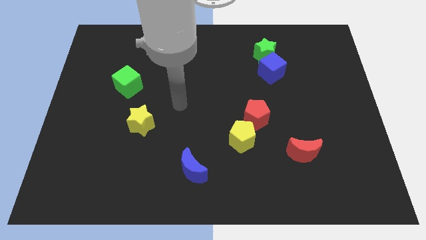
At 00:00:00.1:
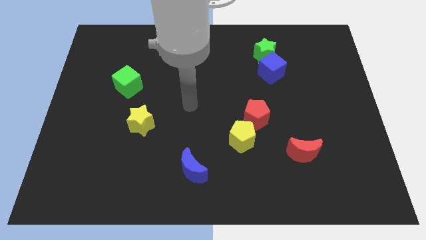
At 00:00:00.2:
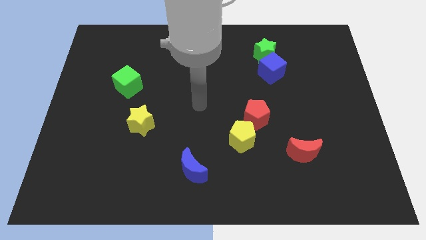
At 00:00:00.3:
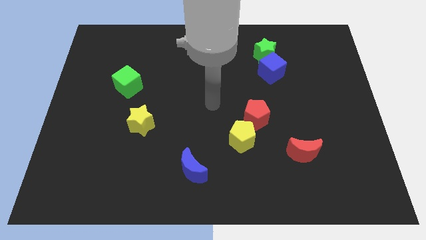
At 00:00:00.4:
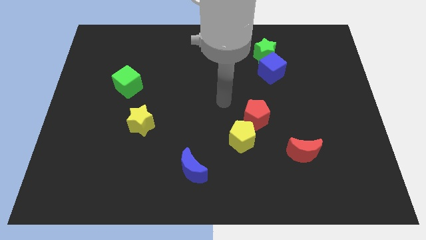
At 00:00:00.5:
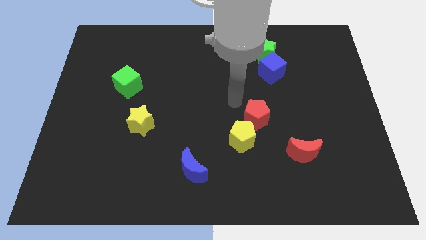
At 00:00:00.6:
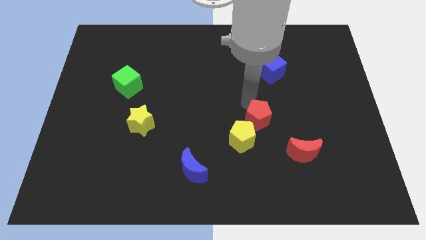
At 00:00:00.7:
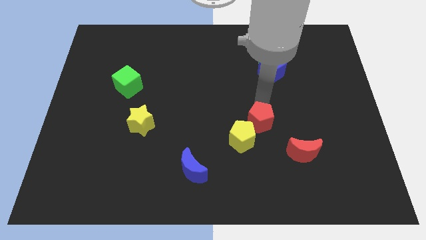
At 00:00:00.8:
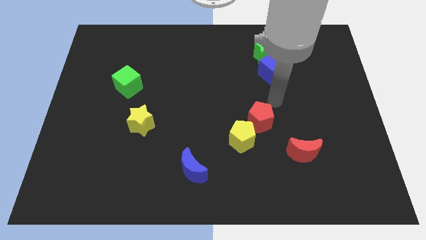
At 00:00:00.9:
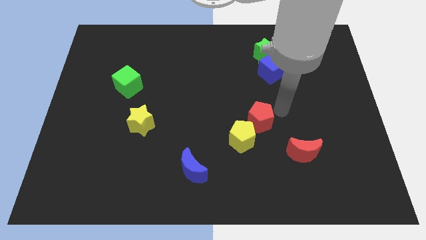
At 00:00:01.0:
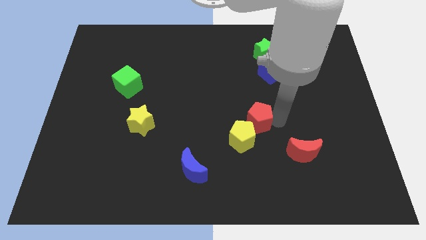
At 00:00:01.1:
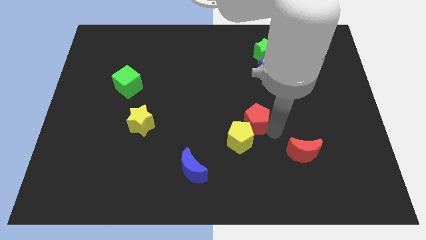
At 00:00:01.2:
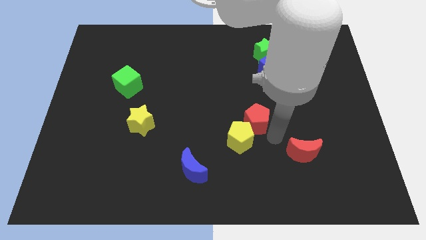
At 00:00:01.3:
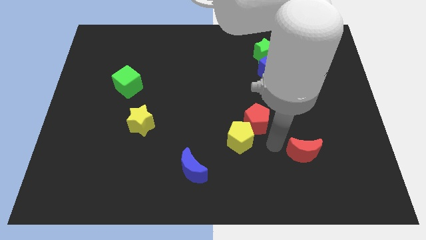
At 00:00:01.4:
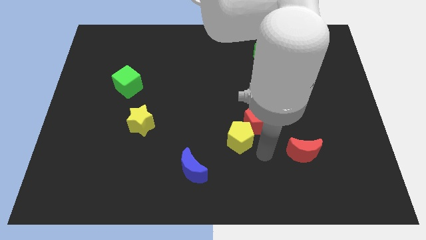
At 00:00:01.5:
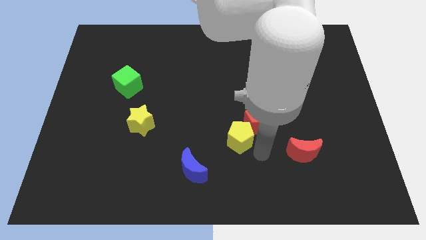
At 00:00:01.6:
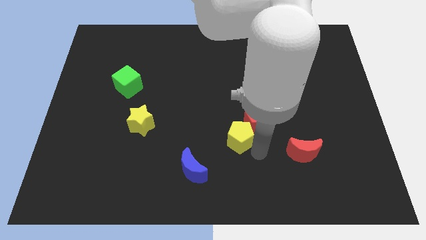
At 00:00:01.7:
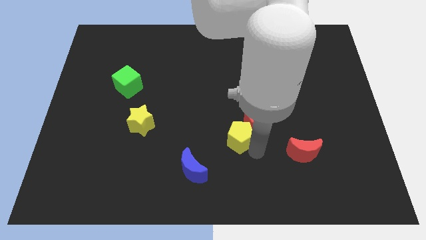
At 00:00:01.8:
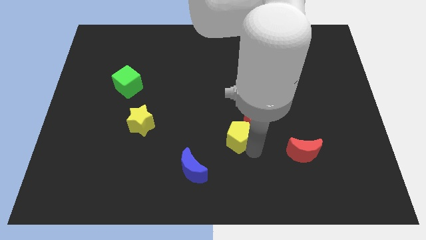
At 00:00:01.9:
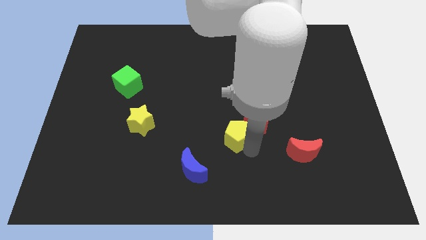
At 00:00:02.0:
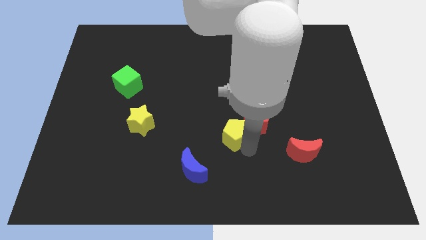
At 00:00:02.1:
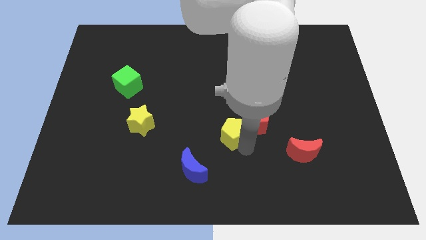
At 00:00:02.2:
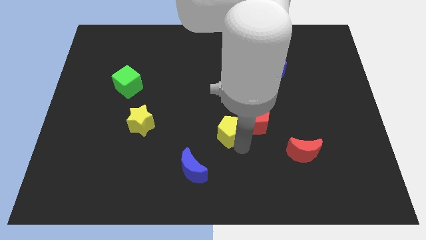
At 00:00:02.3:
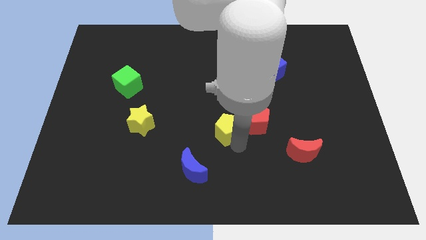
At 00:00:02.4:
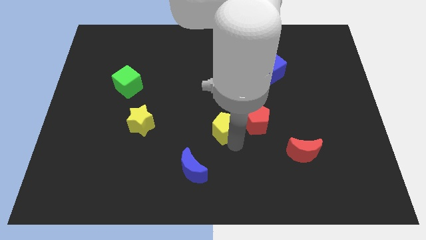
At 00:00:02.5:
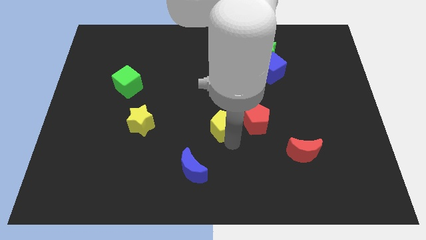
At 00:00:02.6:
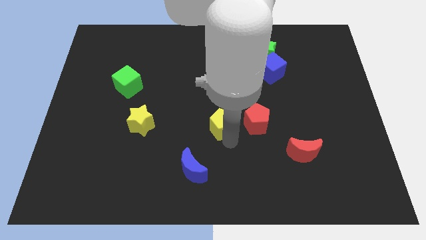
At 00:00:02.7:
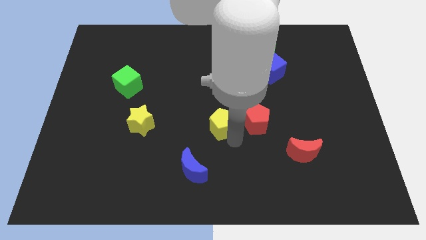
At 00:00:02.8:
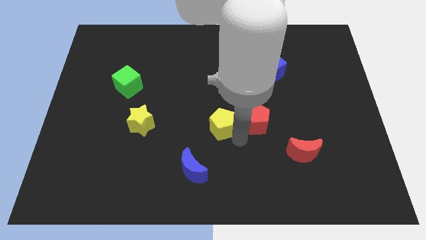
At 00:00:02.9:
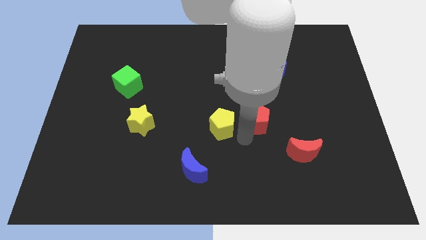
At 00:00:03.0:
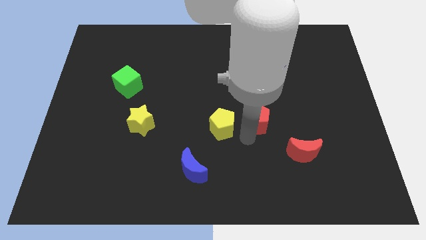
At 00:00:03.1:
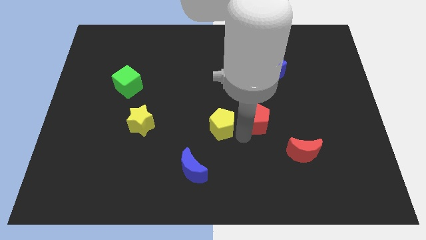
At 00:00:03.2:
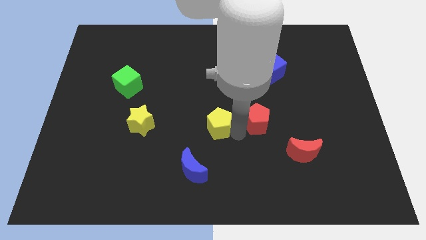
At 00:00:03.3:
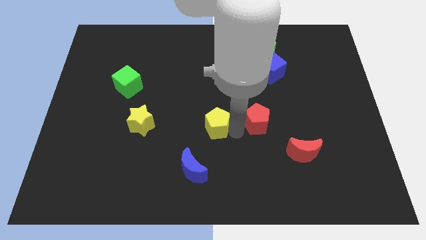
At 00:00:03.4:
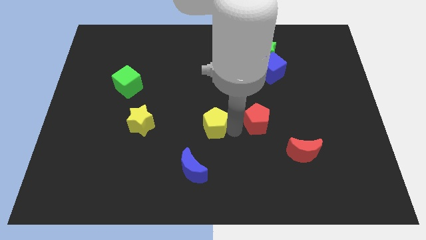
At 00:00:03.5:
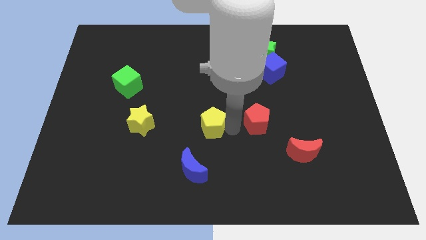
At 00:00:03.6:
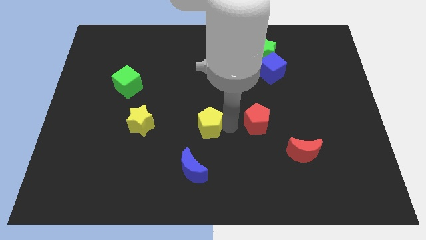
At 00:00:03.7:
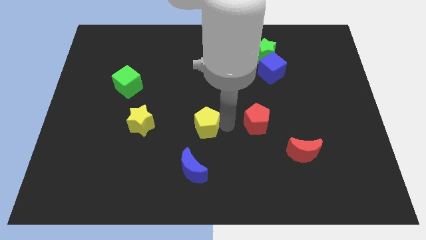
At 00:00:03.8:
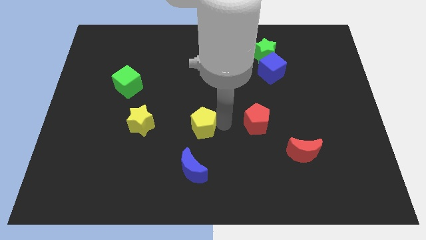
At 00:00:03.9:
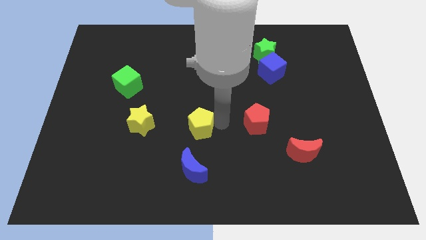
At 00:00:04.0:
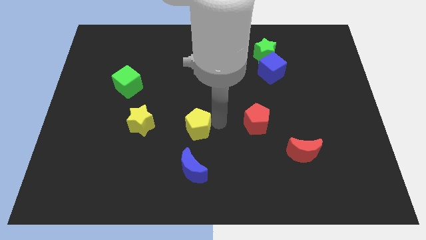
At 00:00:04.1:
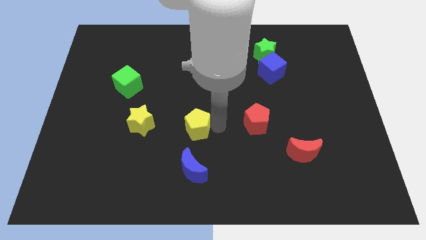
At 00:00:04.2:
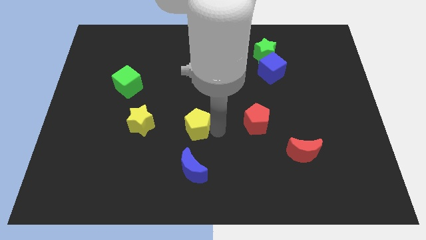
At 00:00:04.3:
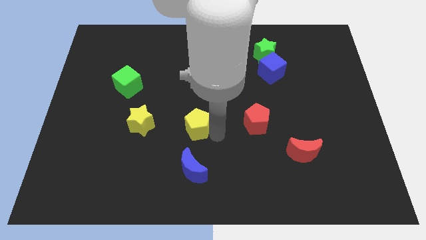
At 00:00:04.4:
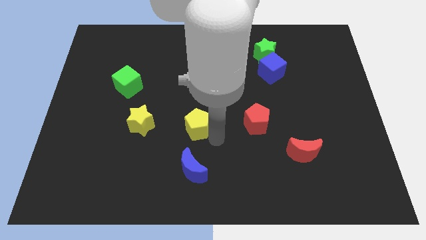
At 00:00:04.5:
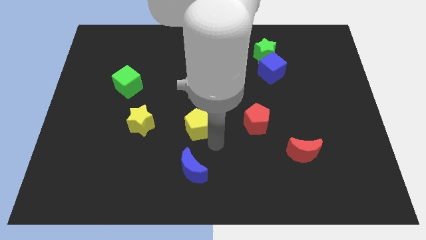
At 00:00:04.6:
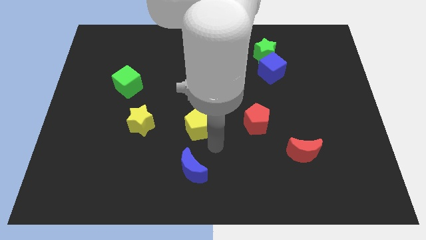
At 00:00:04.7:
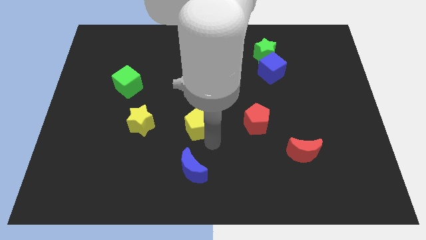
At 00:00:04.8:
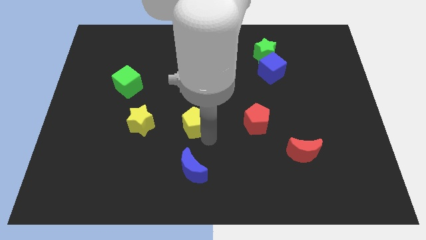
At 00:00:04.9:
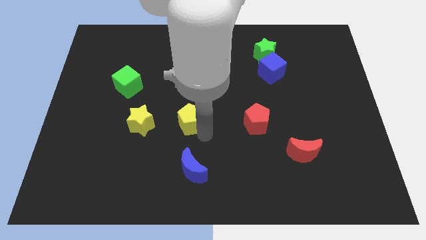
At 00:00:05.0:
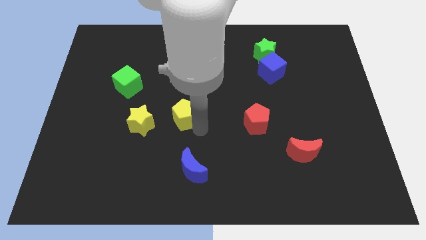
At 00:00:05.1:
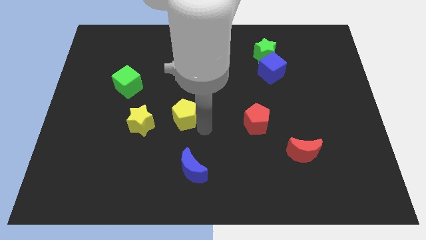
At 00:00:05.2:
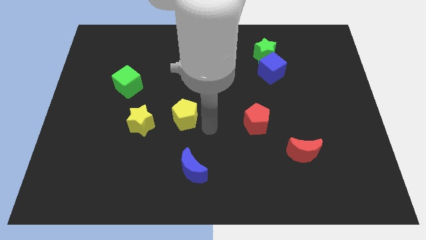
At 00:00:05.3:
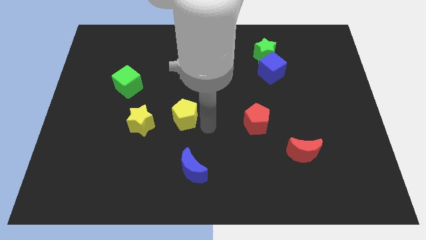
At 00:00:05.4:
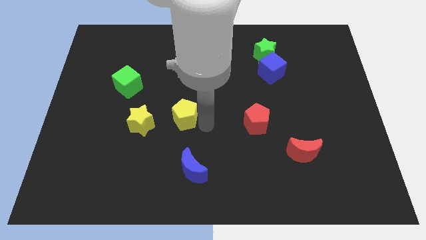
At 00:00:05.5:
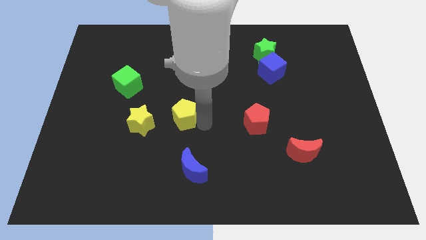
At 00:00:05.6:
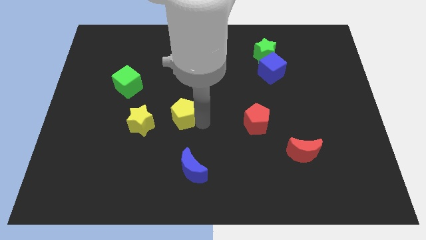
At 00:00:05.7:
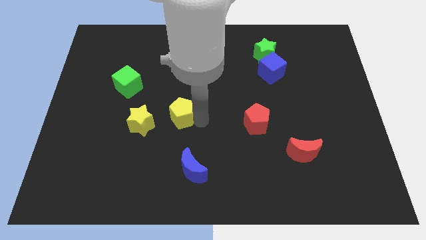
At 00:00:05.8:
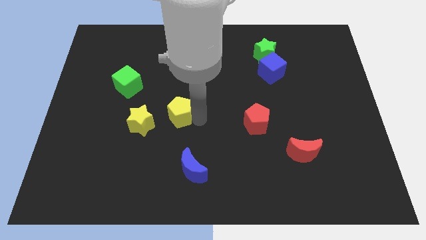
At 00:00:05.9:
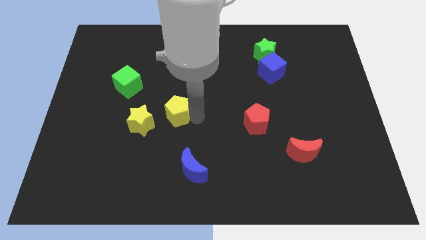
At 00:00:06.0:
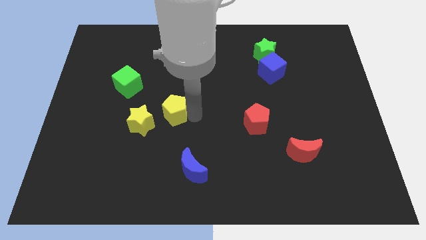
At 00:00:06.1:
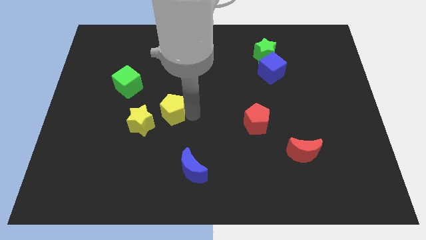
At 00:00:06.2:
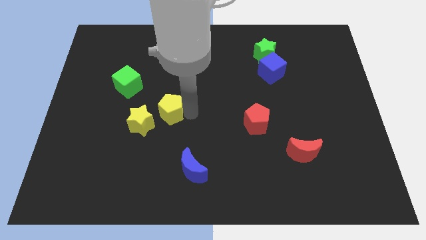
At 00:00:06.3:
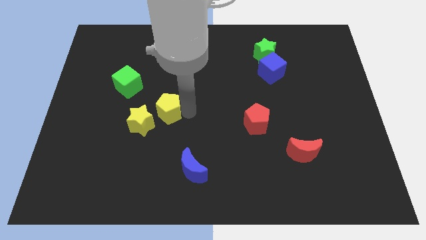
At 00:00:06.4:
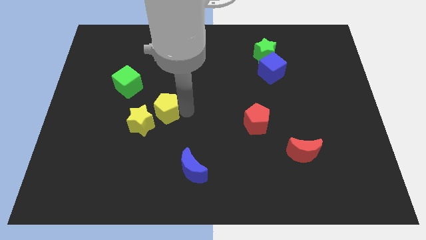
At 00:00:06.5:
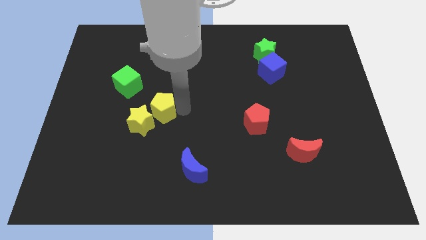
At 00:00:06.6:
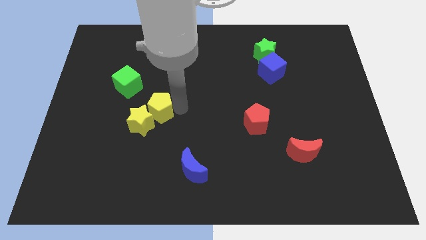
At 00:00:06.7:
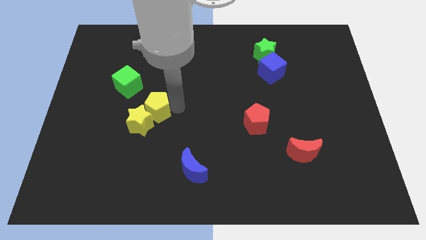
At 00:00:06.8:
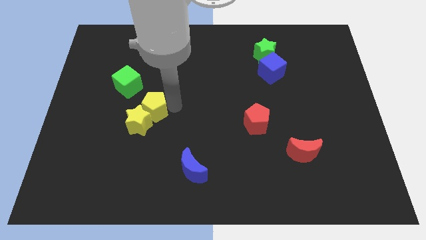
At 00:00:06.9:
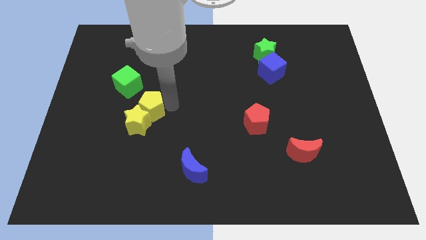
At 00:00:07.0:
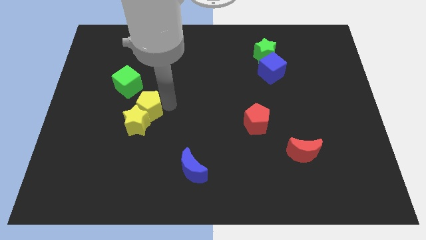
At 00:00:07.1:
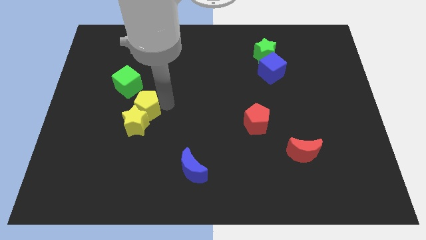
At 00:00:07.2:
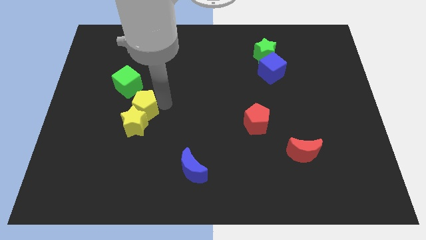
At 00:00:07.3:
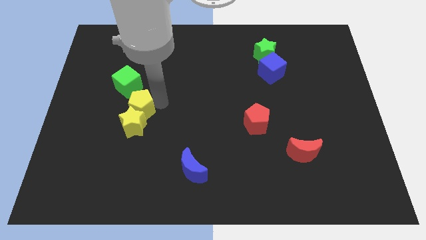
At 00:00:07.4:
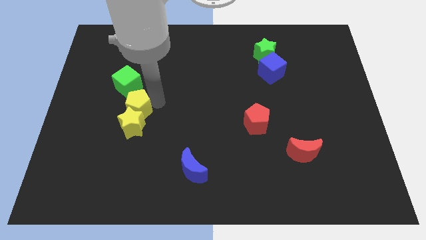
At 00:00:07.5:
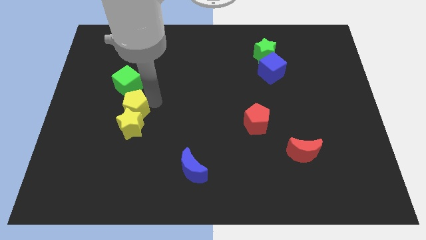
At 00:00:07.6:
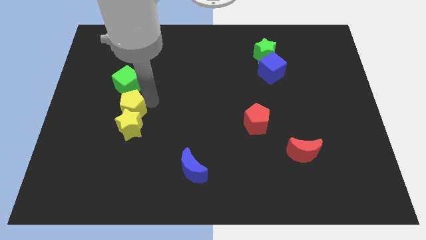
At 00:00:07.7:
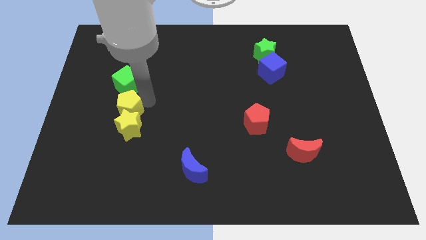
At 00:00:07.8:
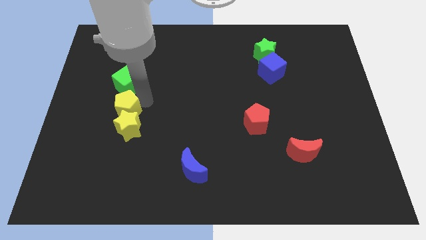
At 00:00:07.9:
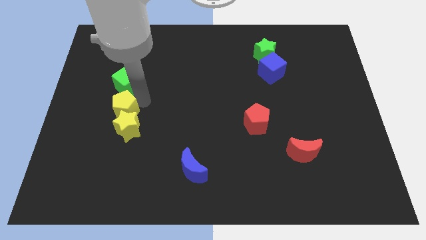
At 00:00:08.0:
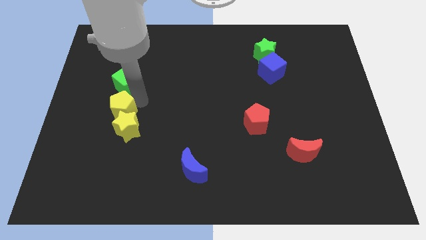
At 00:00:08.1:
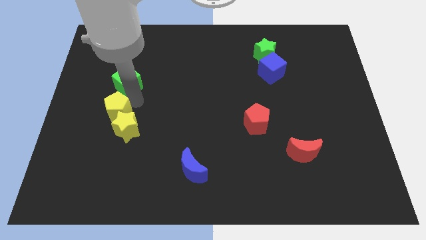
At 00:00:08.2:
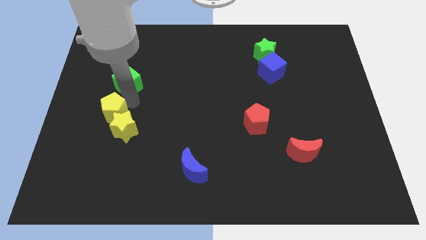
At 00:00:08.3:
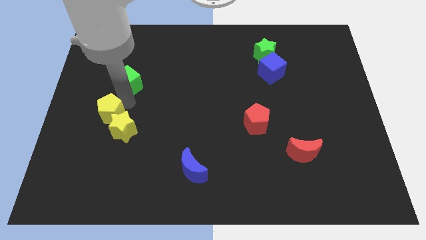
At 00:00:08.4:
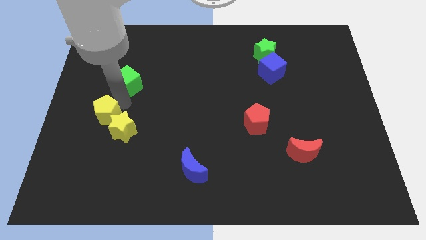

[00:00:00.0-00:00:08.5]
put the yellow pentagon to the left of the yellow star
